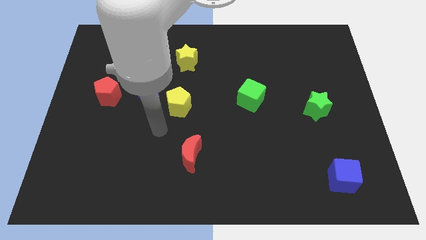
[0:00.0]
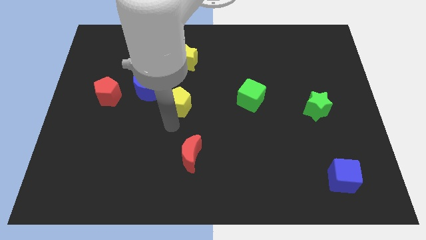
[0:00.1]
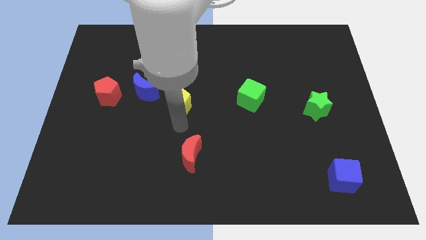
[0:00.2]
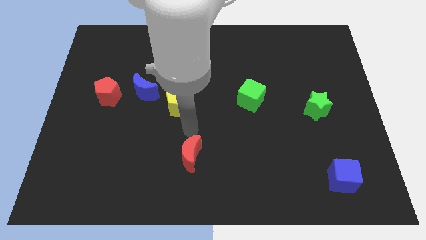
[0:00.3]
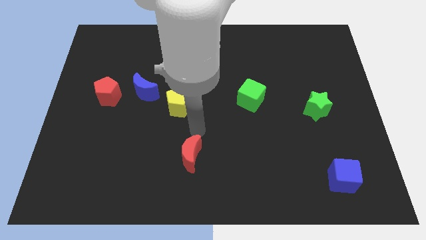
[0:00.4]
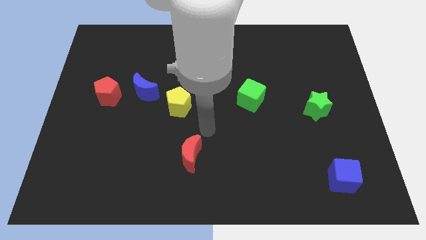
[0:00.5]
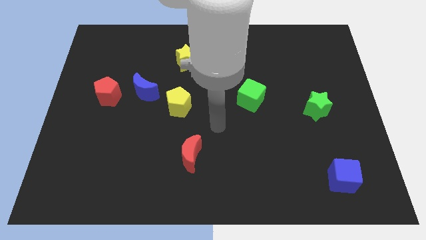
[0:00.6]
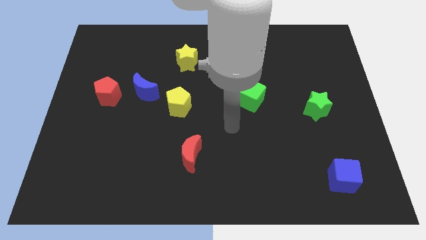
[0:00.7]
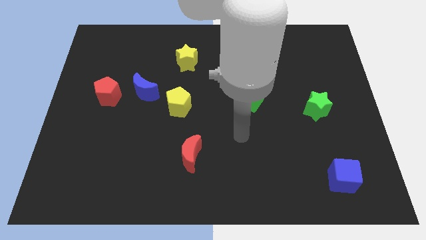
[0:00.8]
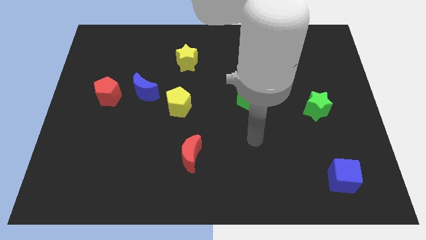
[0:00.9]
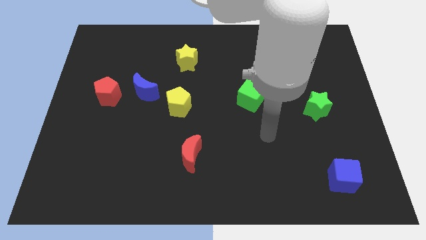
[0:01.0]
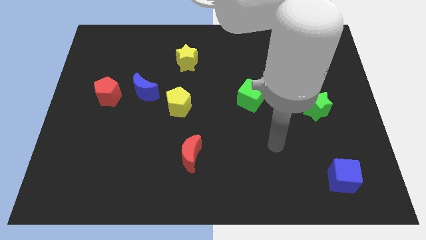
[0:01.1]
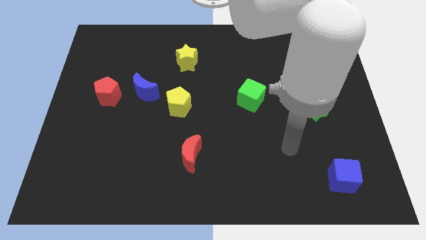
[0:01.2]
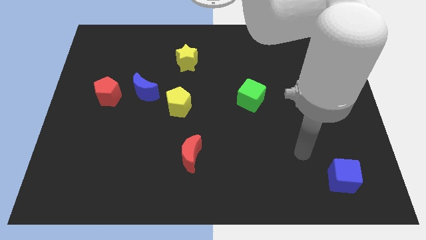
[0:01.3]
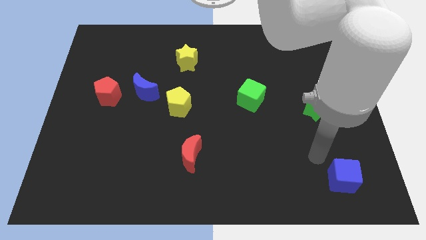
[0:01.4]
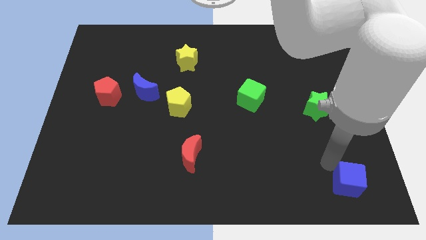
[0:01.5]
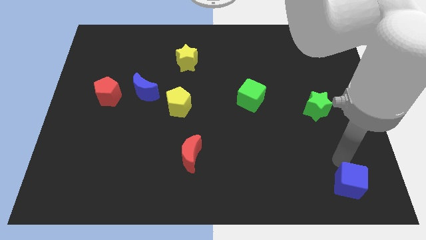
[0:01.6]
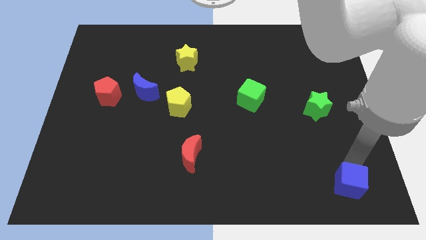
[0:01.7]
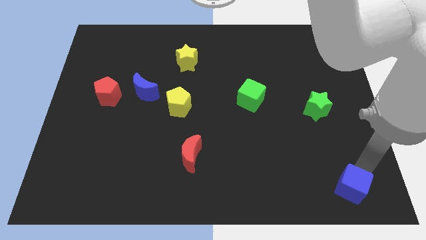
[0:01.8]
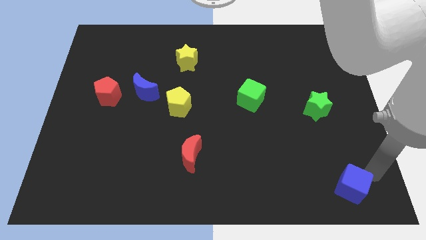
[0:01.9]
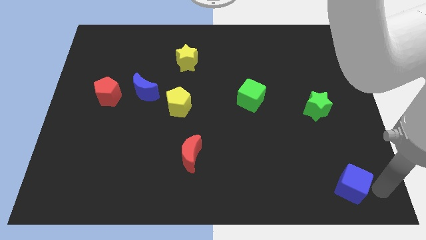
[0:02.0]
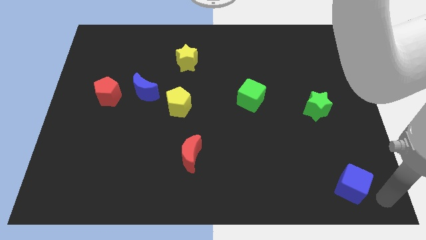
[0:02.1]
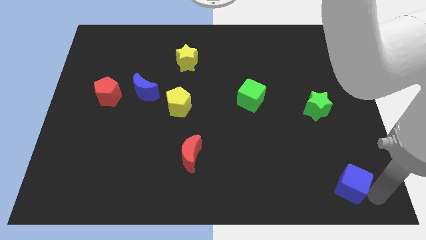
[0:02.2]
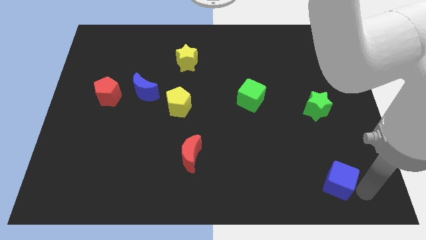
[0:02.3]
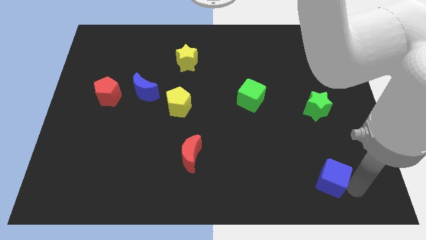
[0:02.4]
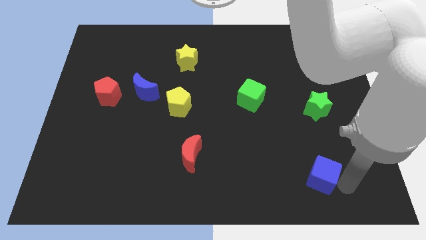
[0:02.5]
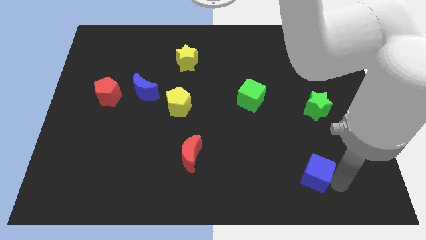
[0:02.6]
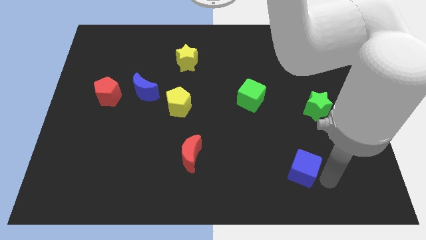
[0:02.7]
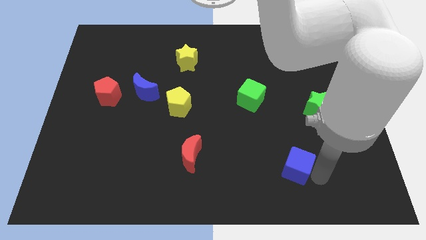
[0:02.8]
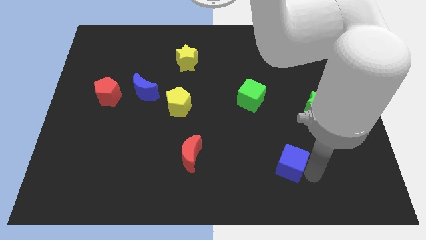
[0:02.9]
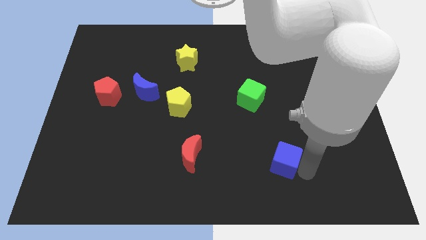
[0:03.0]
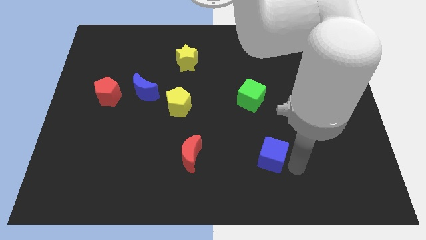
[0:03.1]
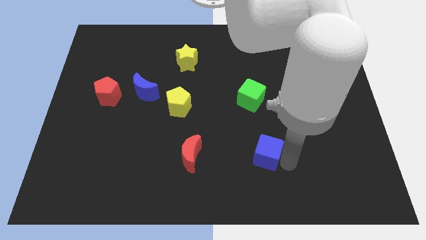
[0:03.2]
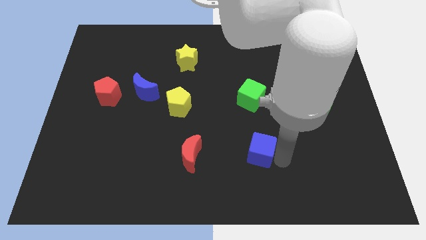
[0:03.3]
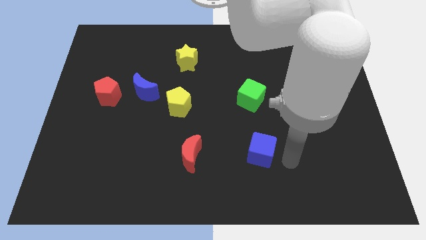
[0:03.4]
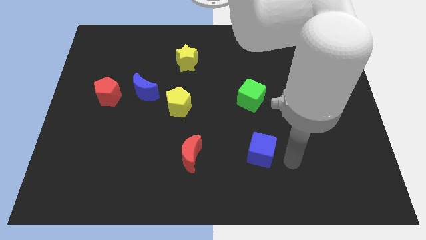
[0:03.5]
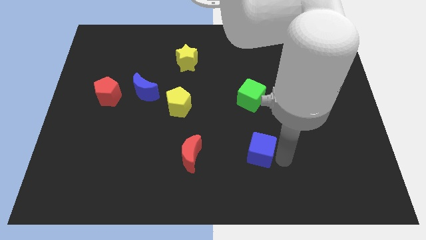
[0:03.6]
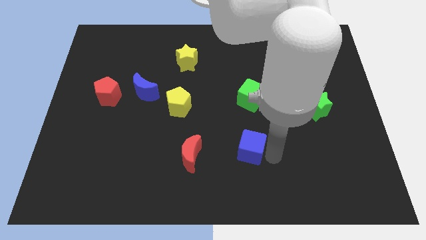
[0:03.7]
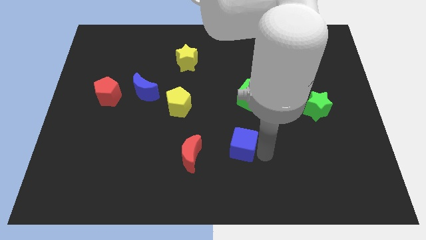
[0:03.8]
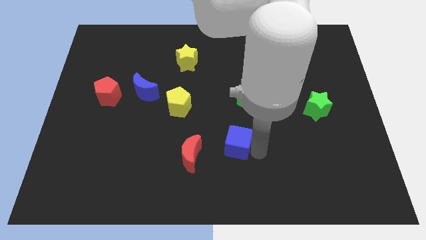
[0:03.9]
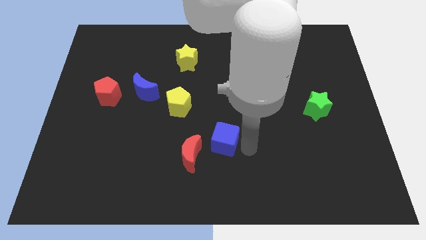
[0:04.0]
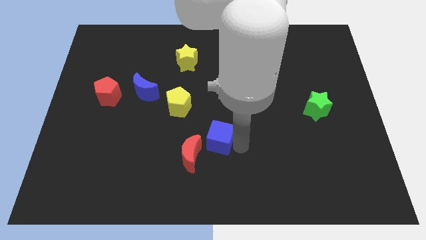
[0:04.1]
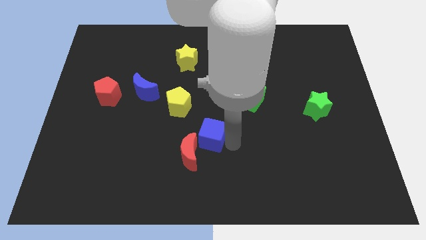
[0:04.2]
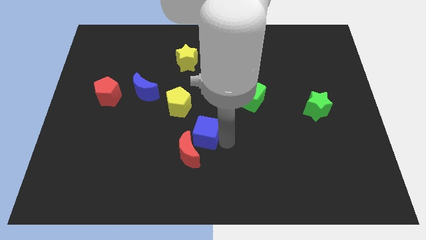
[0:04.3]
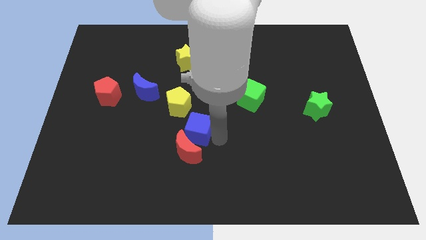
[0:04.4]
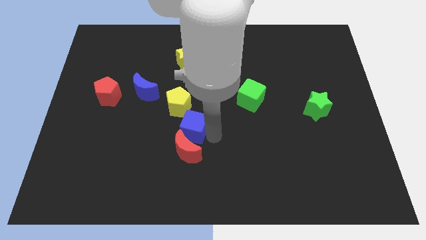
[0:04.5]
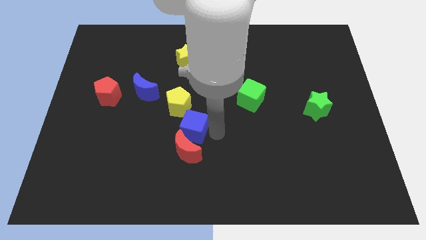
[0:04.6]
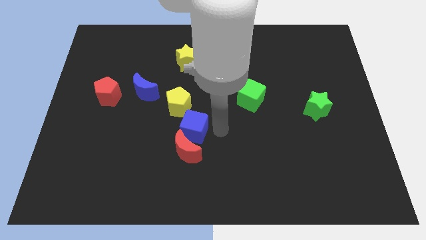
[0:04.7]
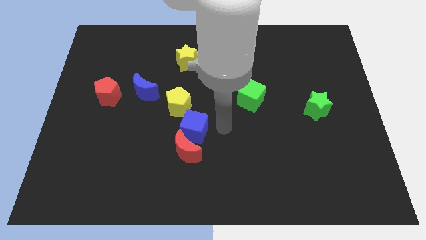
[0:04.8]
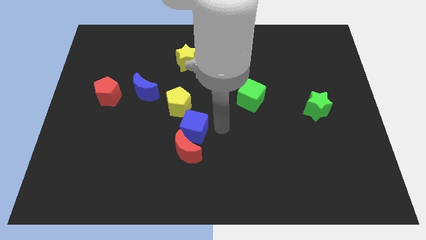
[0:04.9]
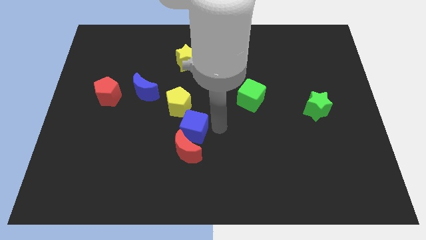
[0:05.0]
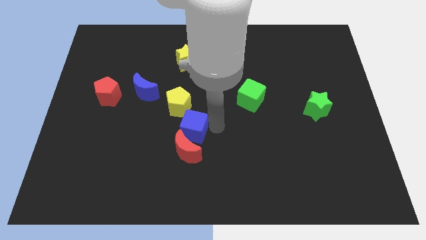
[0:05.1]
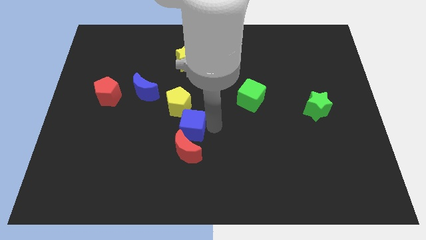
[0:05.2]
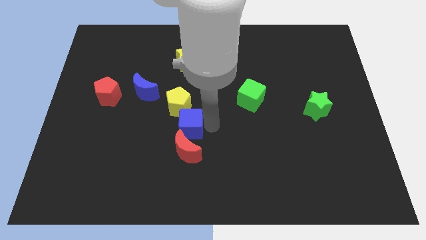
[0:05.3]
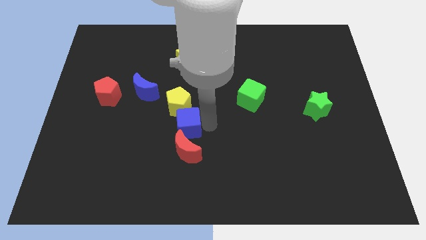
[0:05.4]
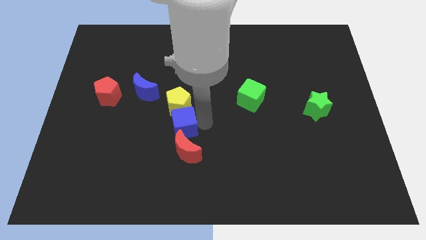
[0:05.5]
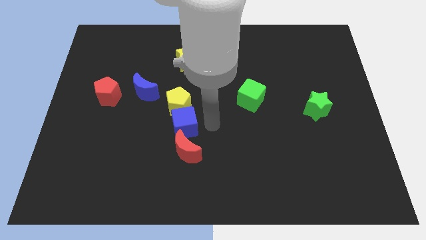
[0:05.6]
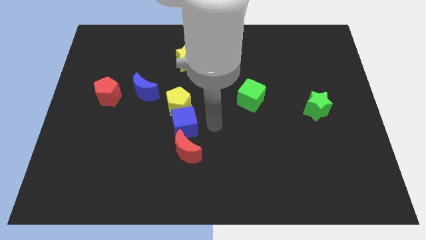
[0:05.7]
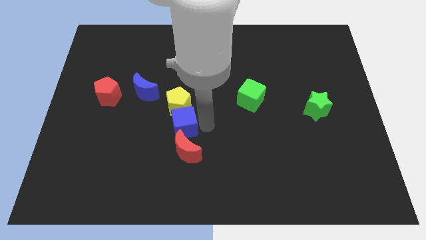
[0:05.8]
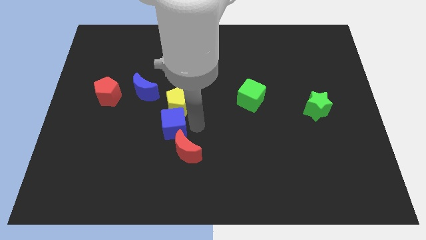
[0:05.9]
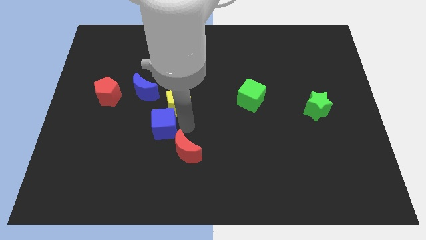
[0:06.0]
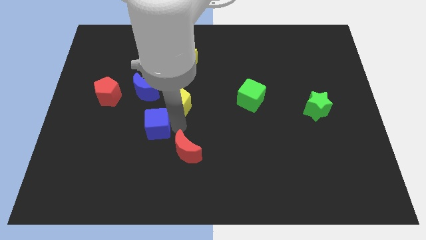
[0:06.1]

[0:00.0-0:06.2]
push the blue cube to the bottom side of the blue moon

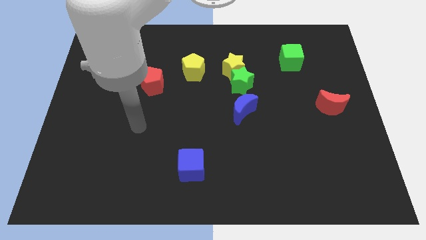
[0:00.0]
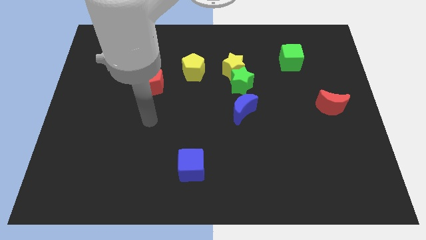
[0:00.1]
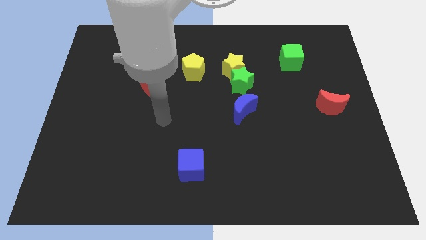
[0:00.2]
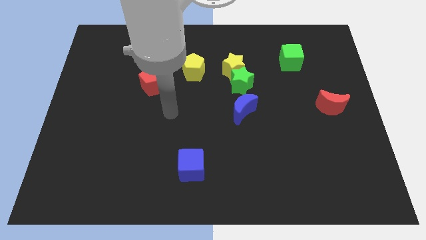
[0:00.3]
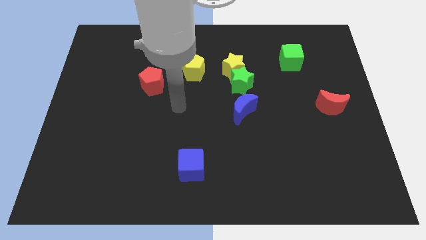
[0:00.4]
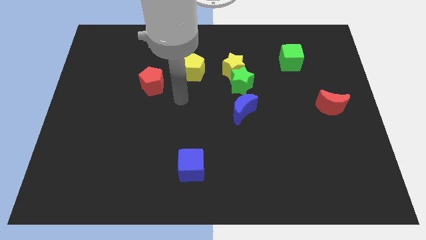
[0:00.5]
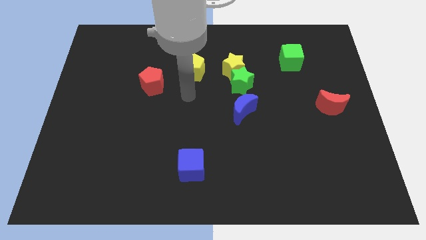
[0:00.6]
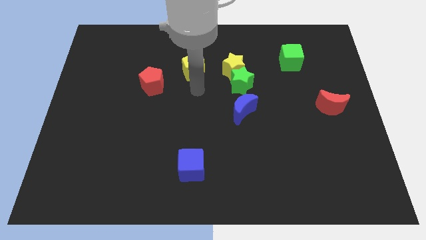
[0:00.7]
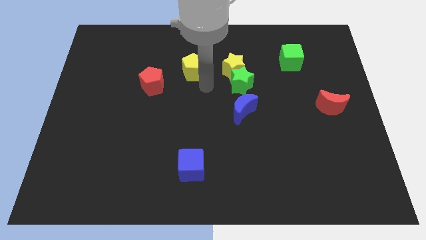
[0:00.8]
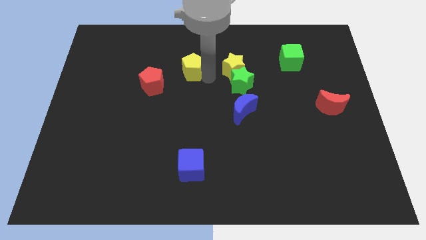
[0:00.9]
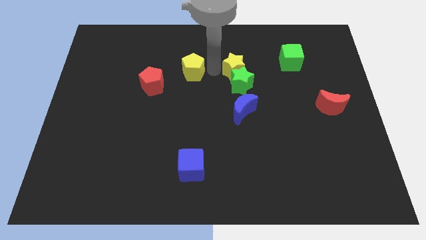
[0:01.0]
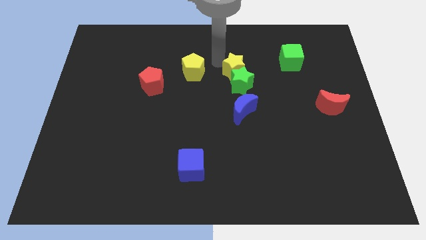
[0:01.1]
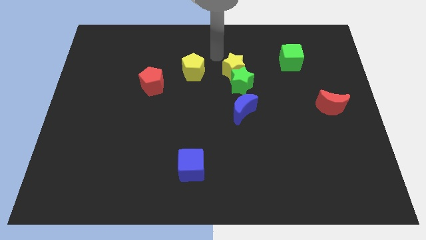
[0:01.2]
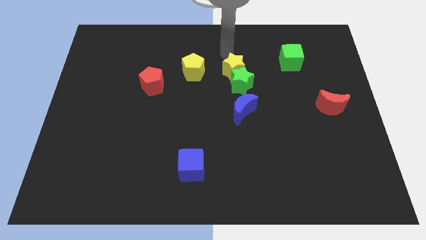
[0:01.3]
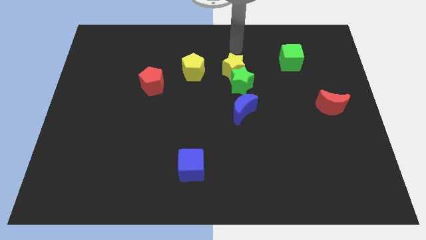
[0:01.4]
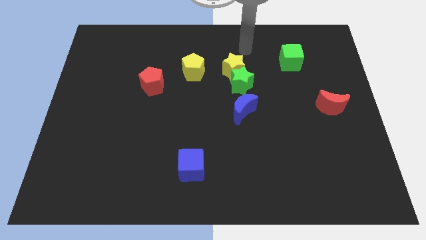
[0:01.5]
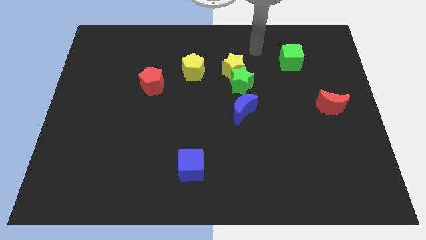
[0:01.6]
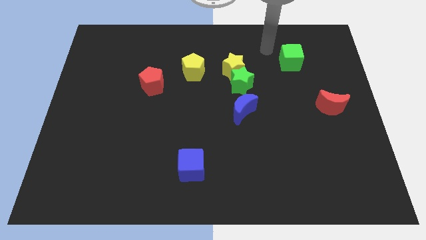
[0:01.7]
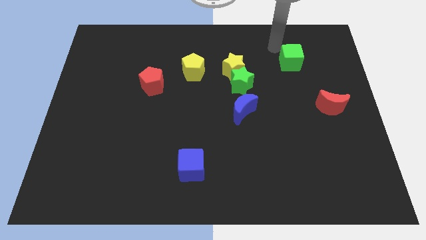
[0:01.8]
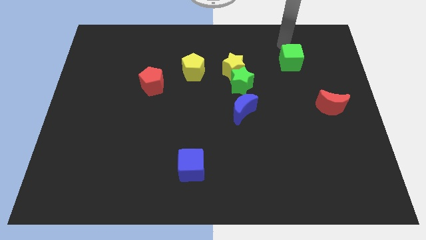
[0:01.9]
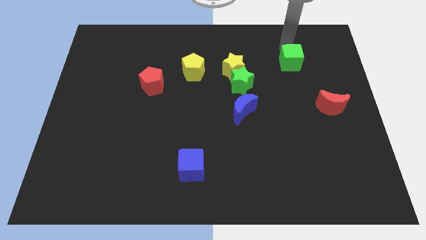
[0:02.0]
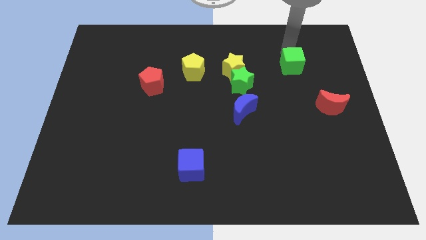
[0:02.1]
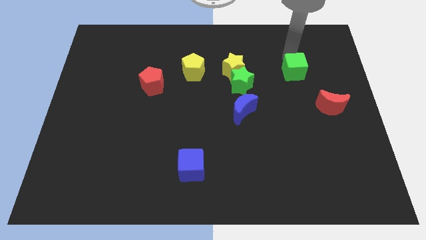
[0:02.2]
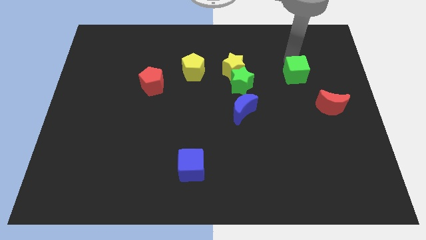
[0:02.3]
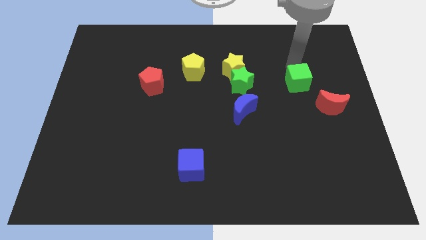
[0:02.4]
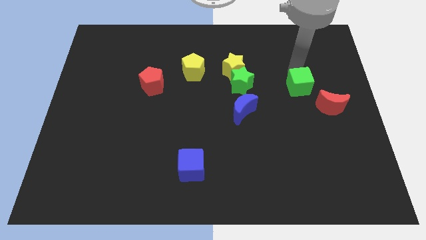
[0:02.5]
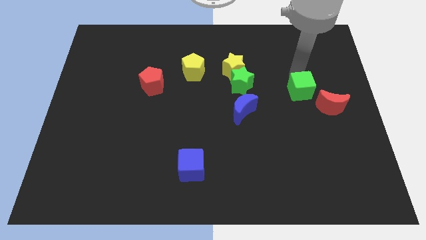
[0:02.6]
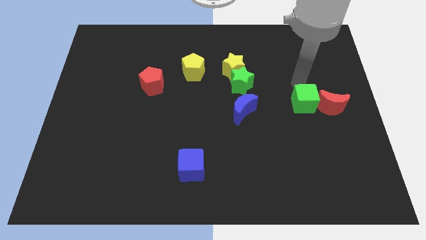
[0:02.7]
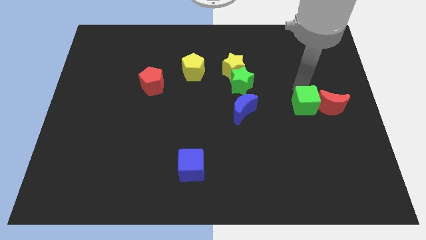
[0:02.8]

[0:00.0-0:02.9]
move the green cube to the bottom left side of the red moon
